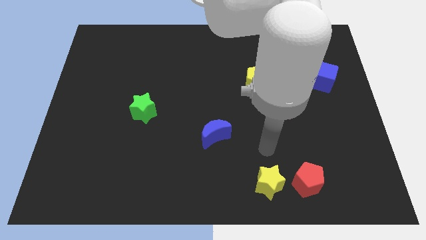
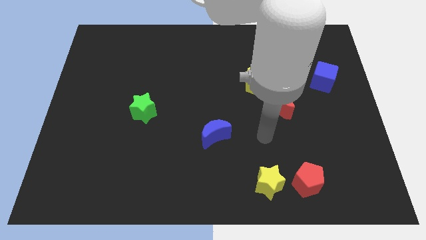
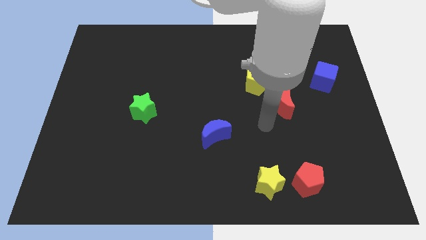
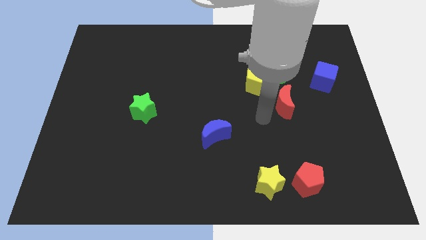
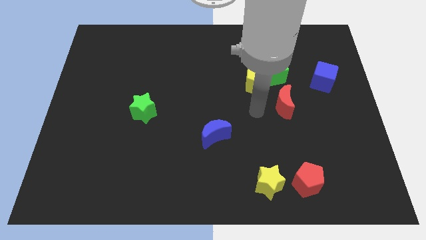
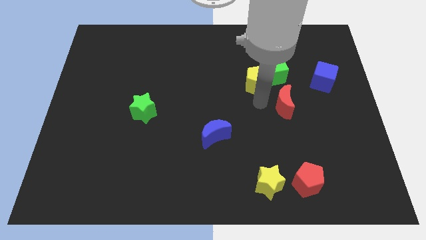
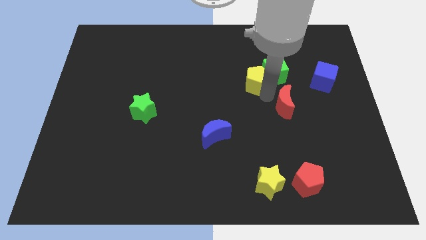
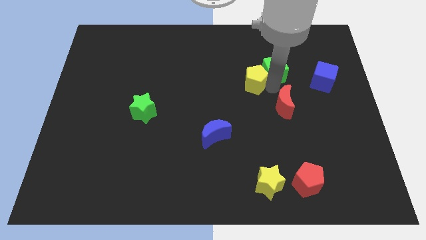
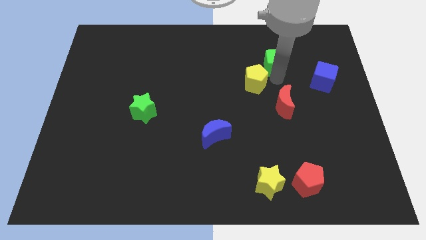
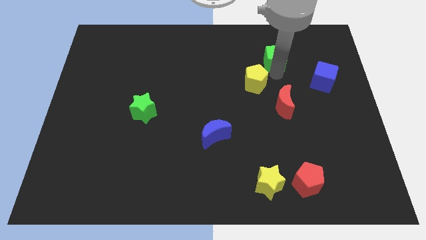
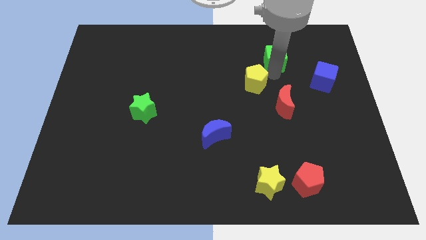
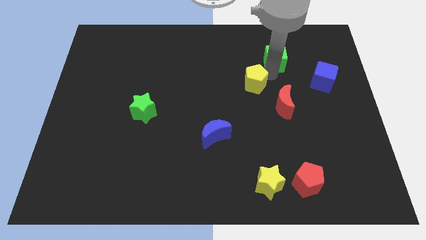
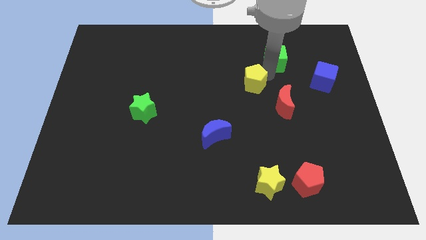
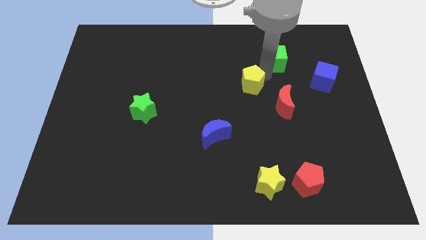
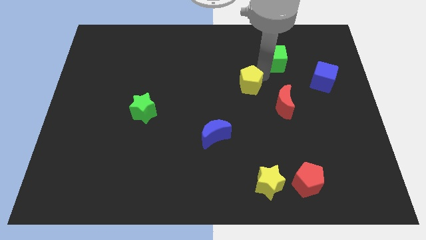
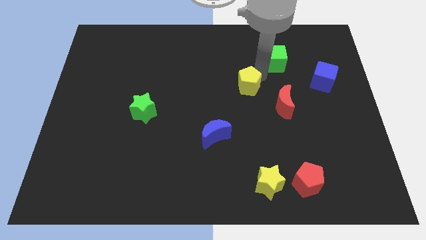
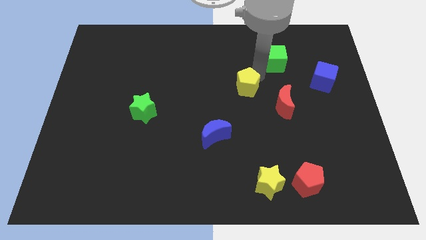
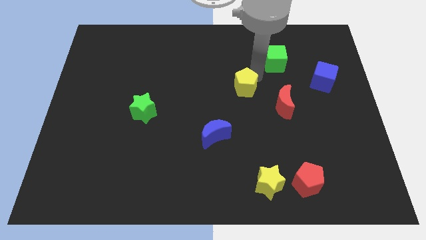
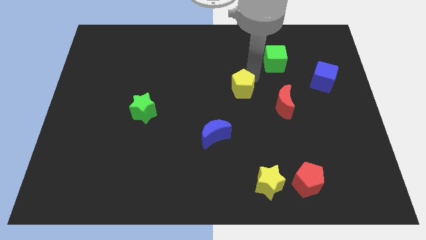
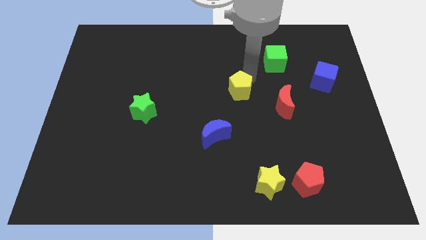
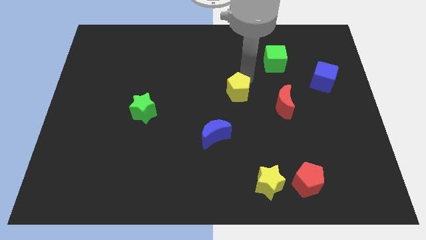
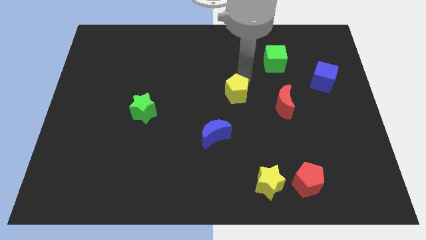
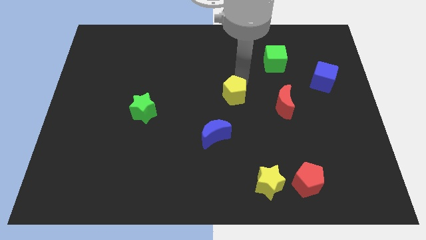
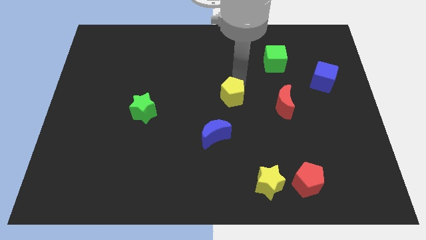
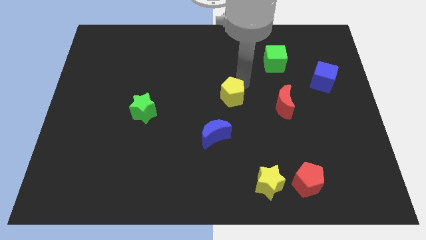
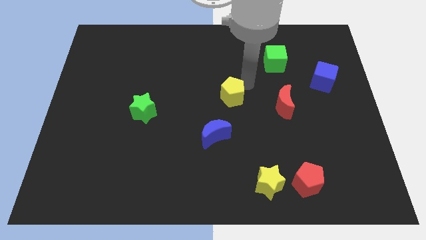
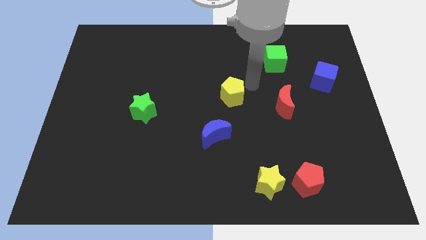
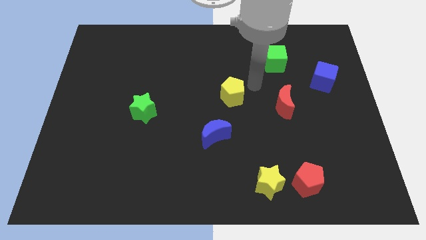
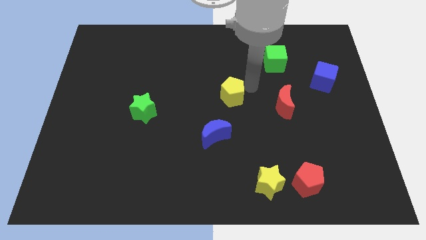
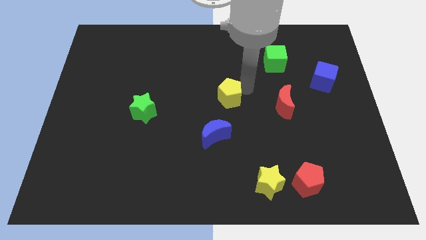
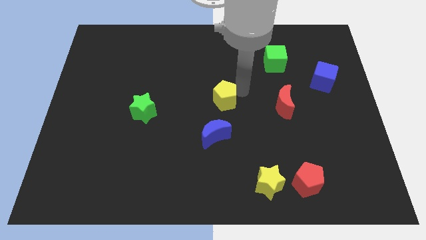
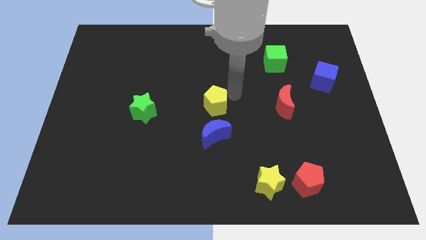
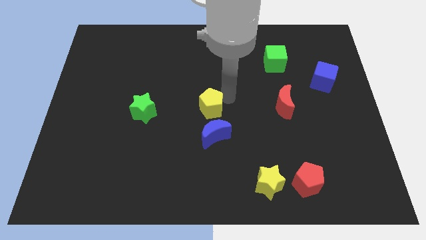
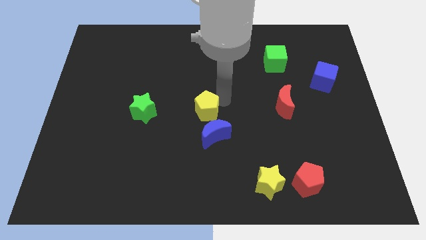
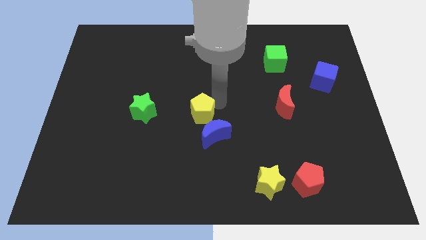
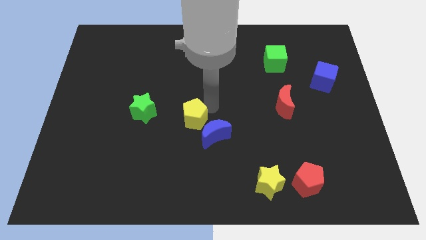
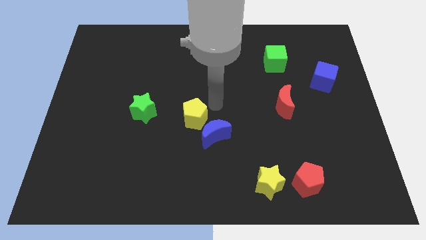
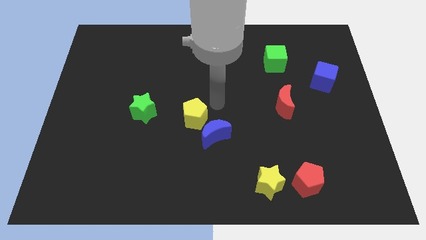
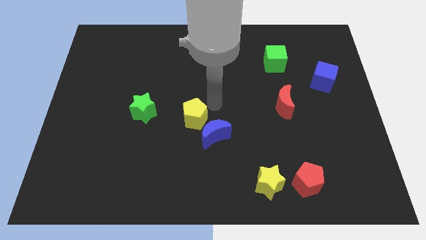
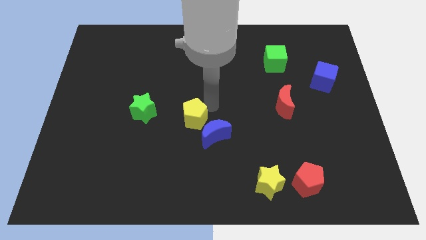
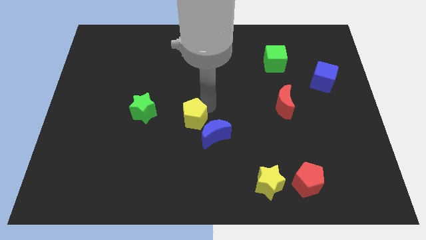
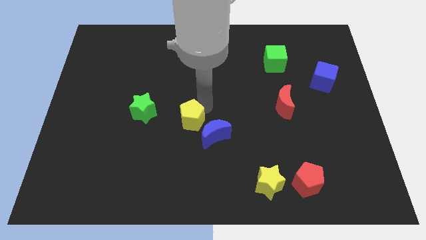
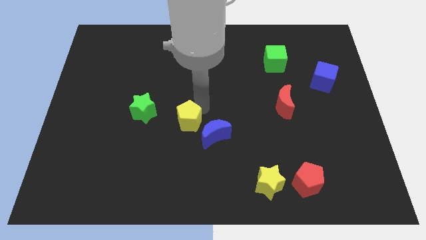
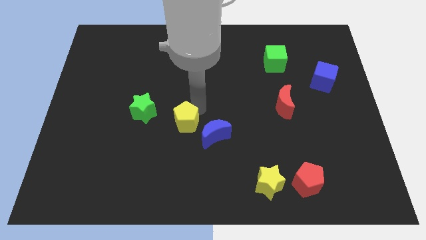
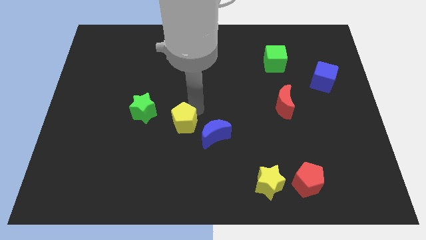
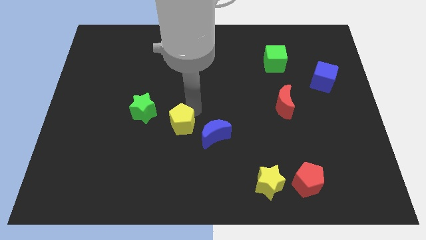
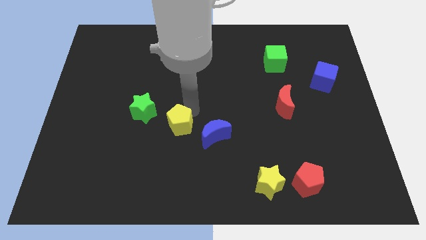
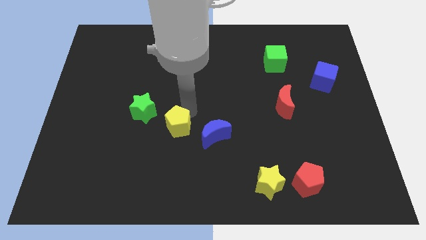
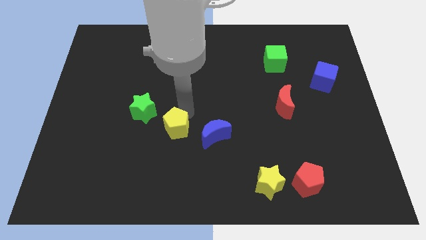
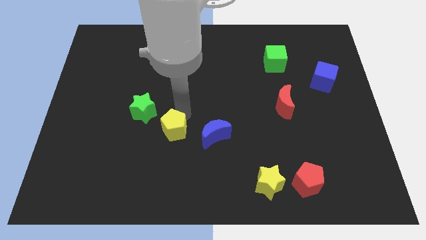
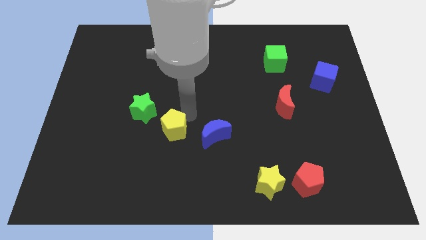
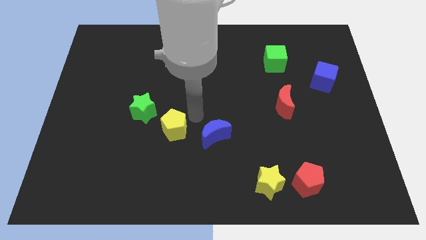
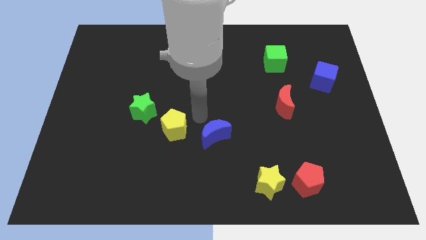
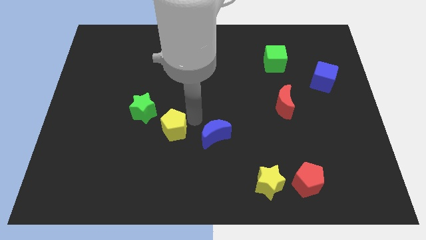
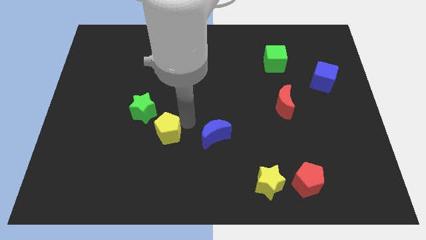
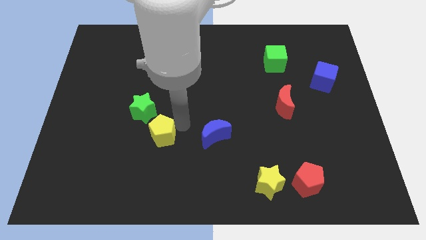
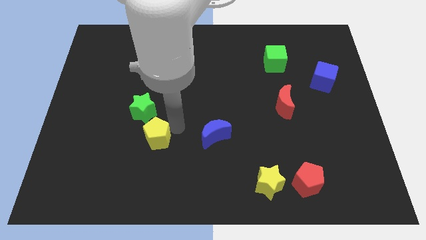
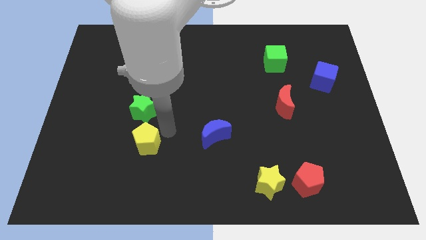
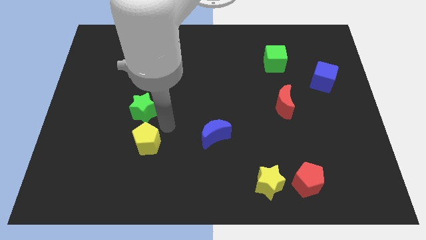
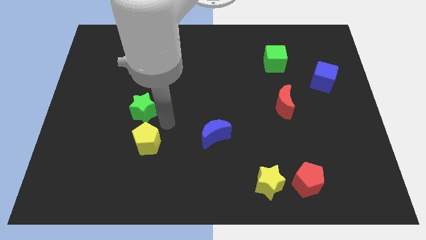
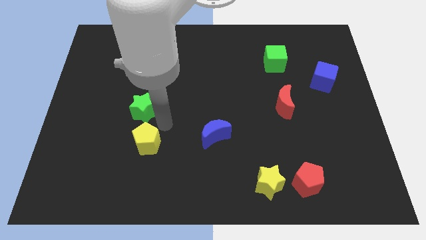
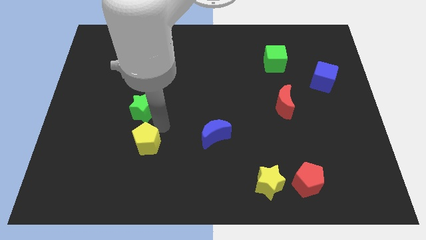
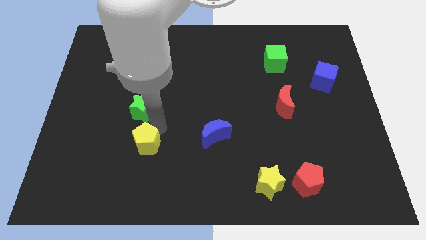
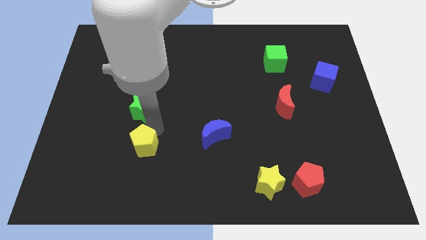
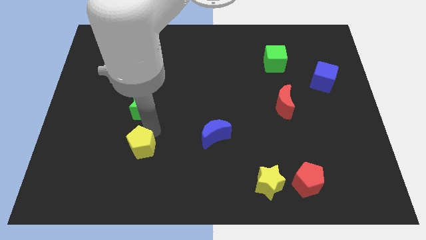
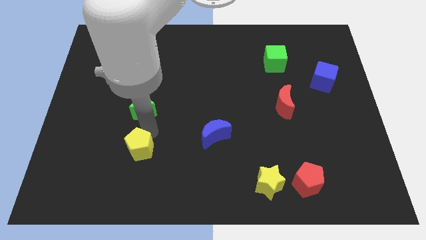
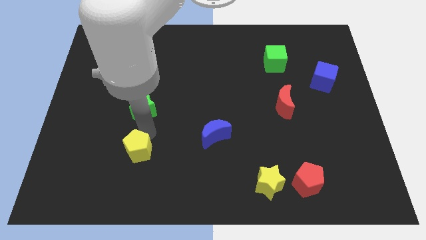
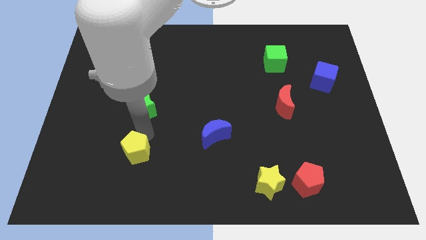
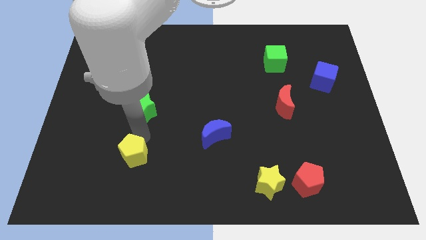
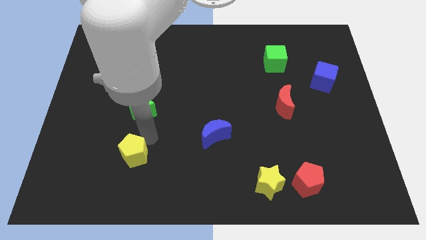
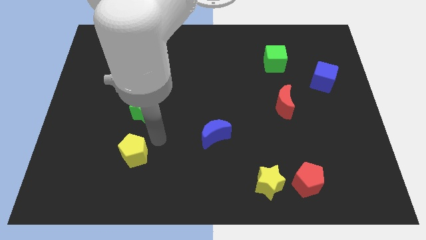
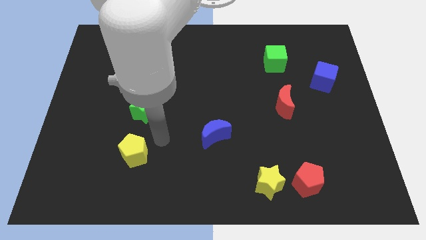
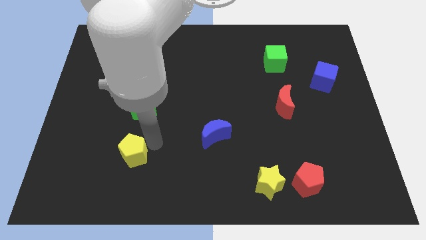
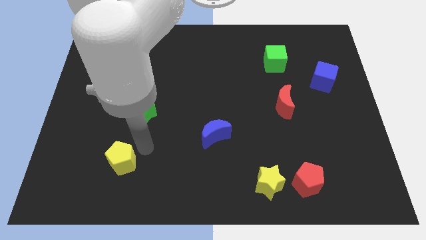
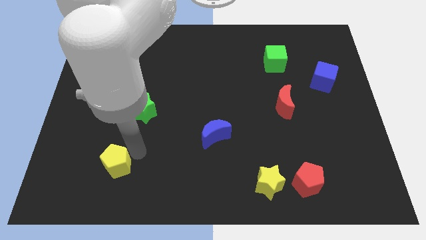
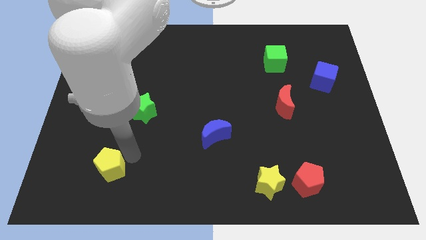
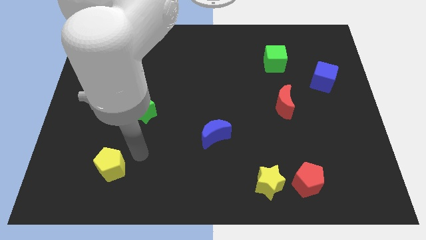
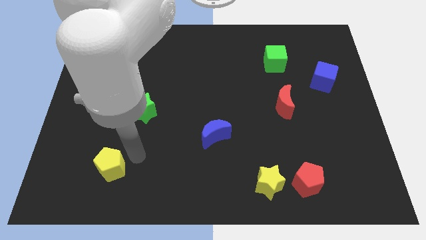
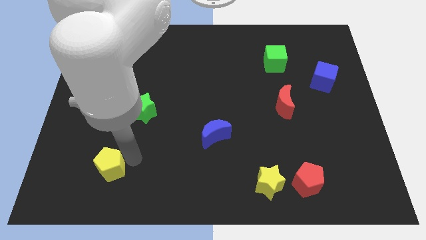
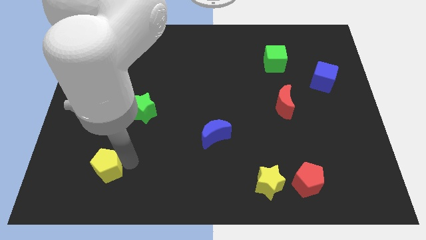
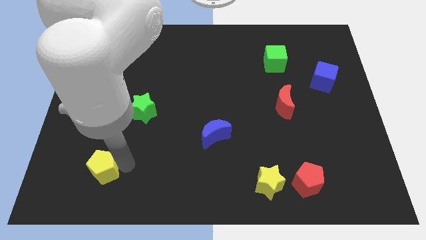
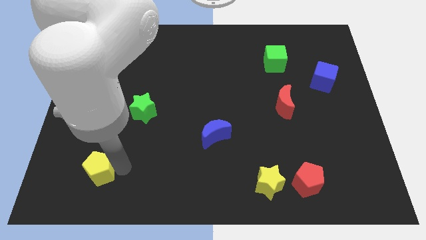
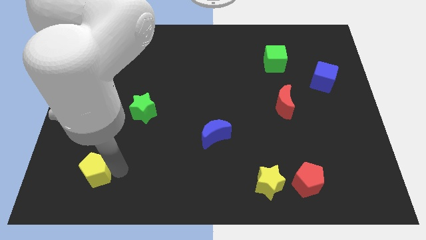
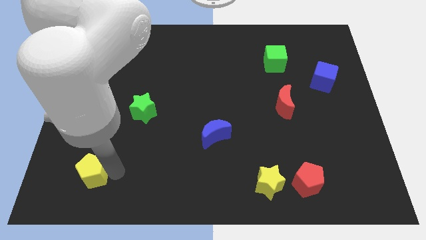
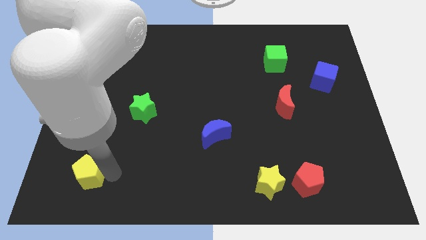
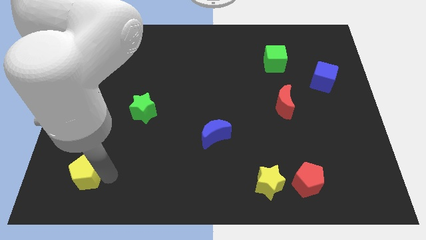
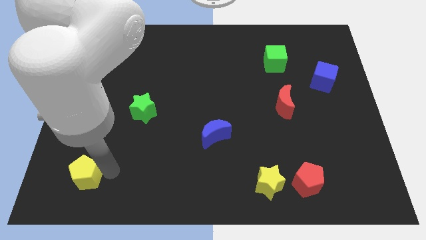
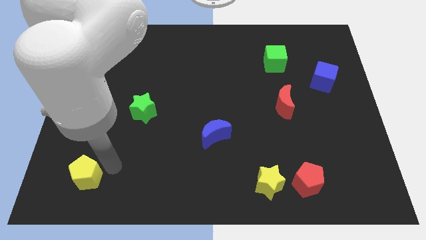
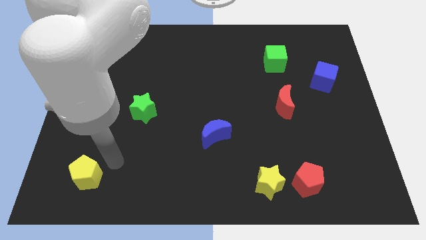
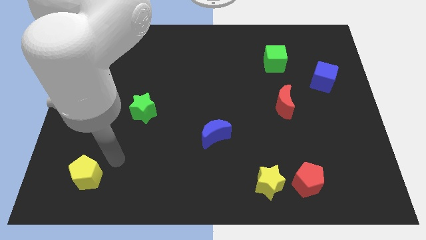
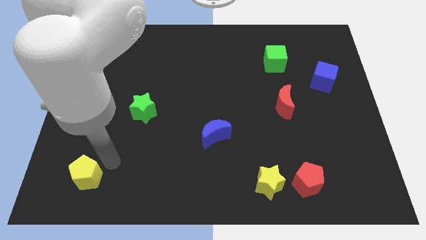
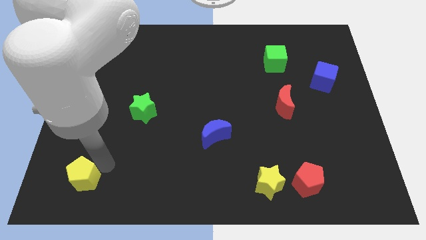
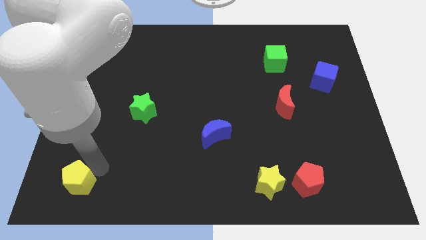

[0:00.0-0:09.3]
slide the yellow pentagon to the bottom left
